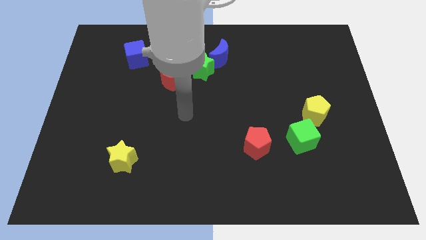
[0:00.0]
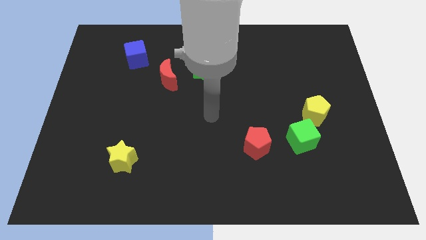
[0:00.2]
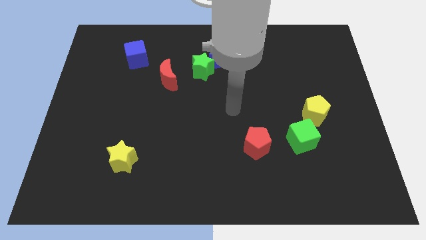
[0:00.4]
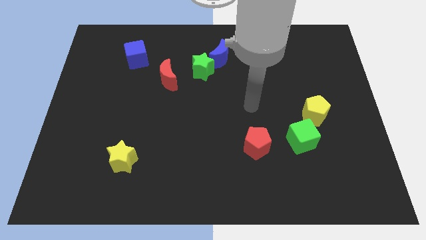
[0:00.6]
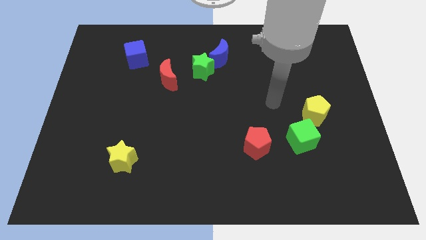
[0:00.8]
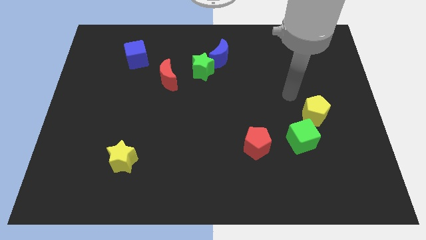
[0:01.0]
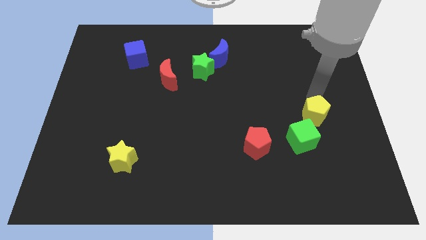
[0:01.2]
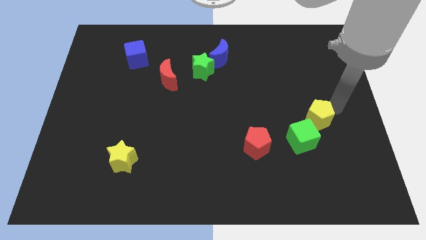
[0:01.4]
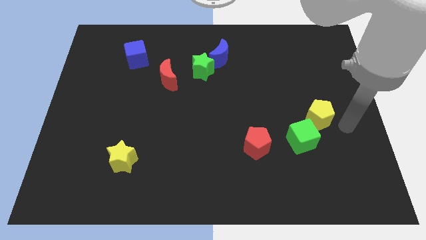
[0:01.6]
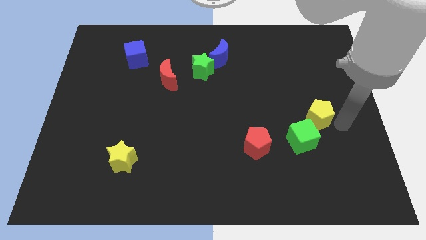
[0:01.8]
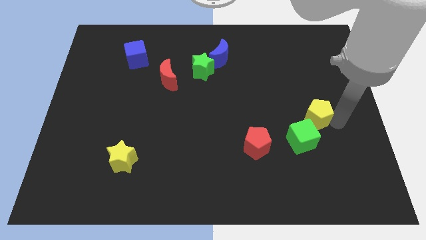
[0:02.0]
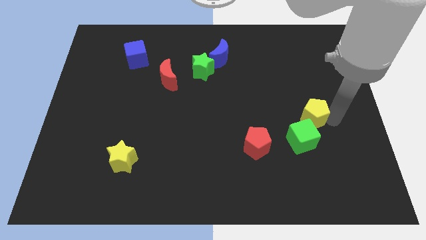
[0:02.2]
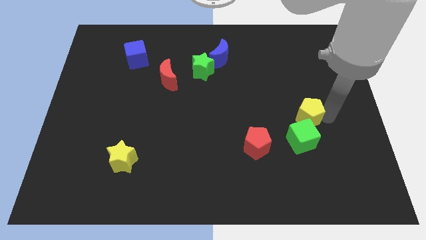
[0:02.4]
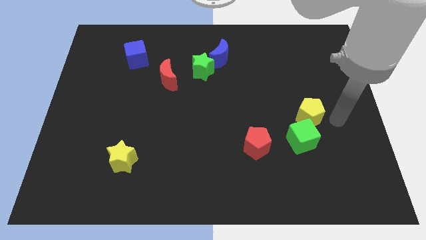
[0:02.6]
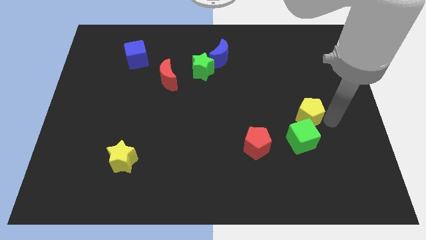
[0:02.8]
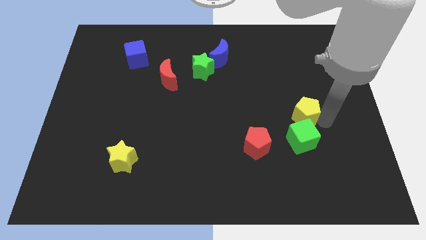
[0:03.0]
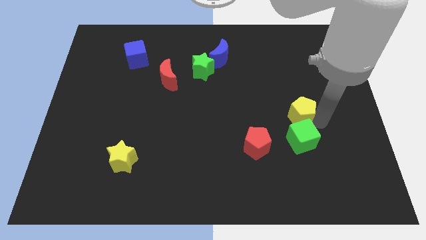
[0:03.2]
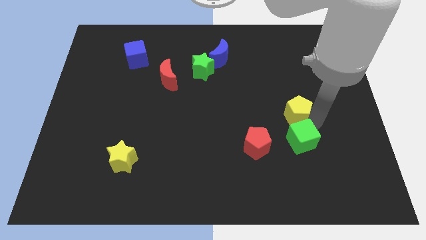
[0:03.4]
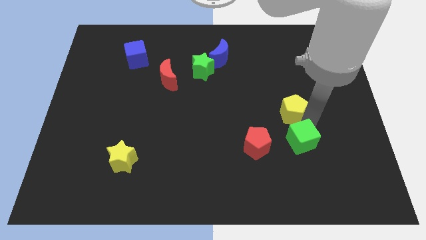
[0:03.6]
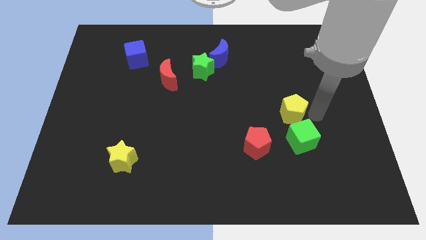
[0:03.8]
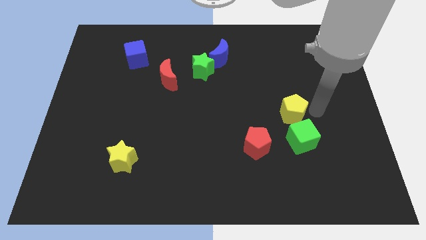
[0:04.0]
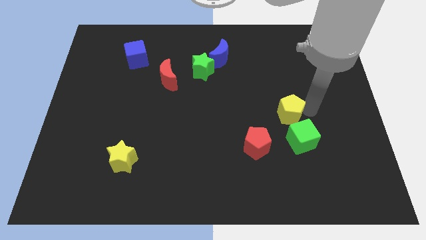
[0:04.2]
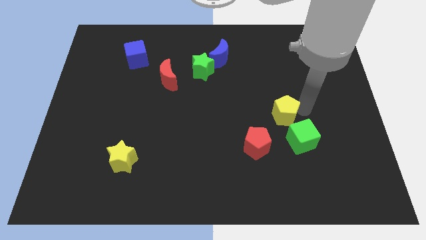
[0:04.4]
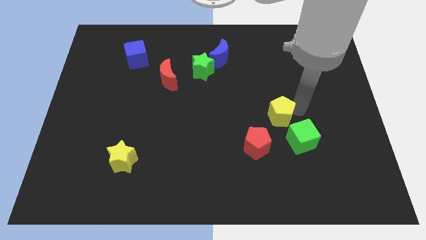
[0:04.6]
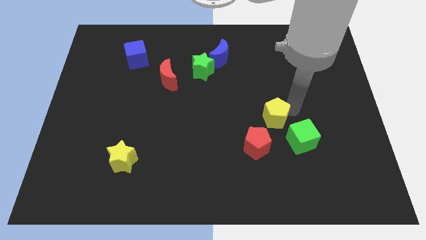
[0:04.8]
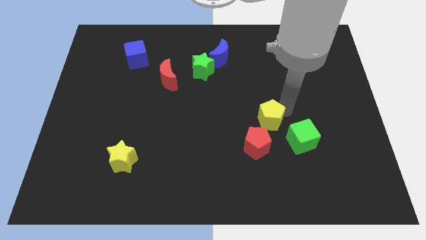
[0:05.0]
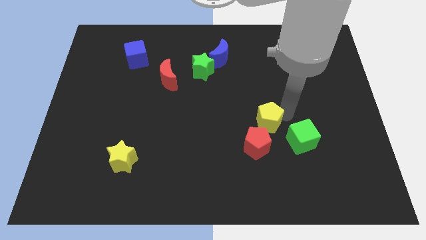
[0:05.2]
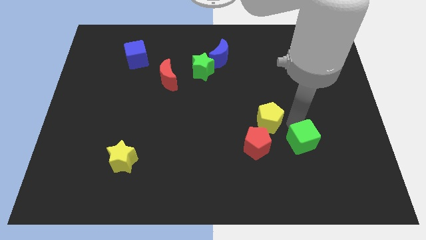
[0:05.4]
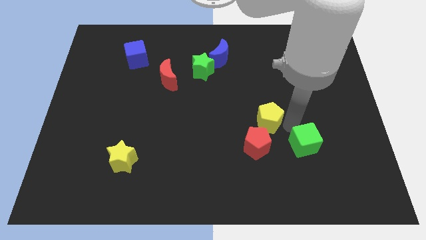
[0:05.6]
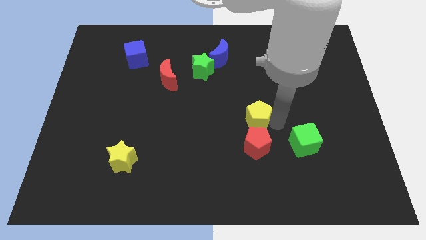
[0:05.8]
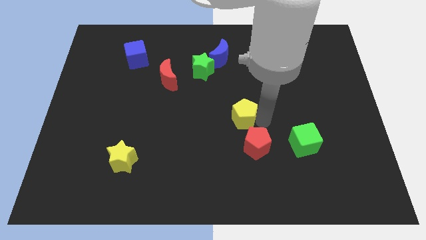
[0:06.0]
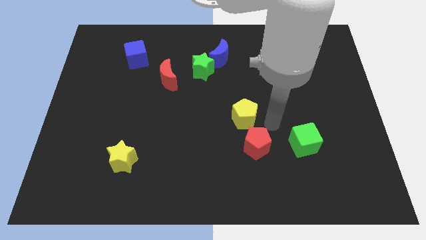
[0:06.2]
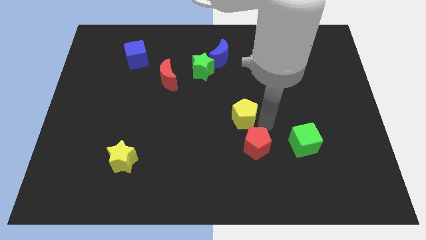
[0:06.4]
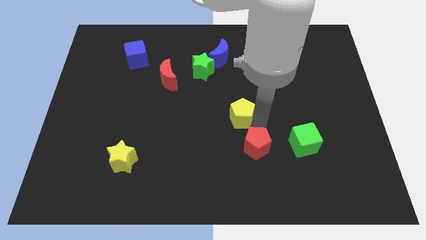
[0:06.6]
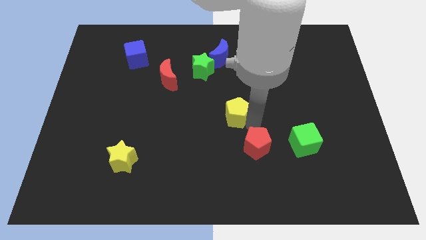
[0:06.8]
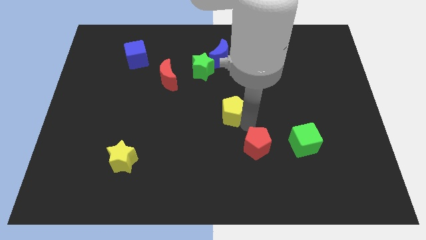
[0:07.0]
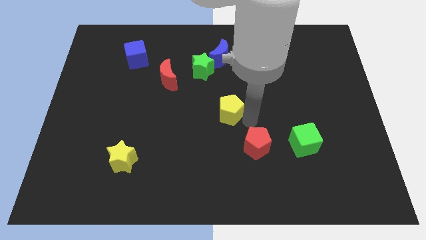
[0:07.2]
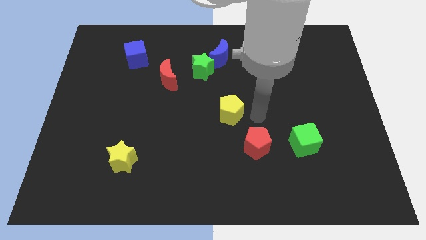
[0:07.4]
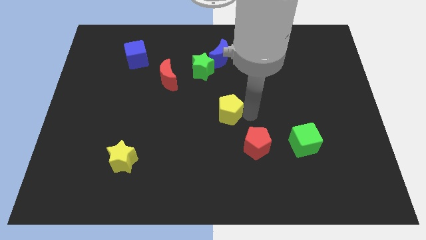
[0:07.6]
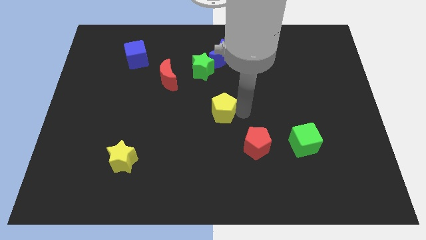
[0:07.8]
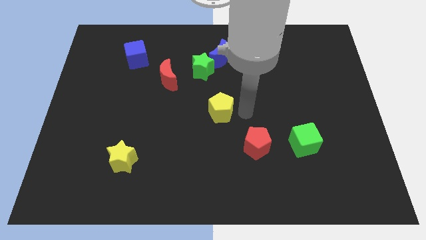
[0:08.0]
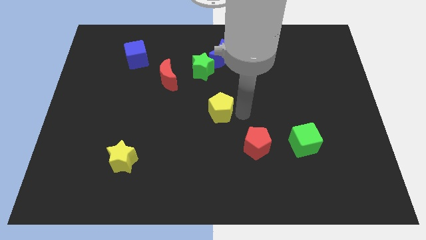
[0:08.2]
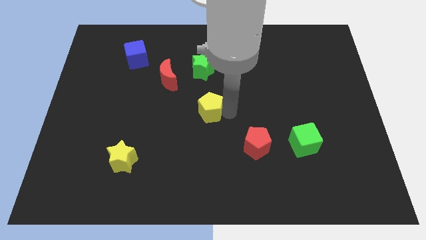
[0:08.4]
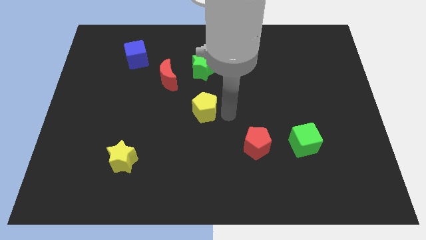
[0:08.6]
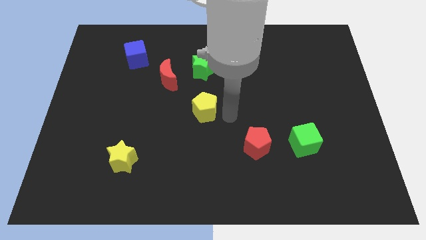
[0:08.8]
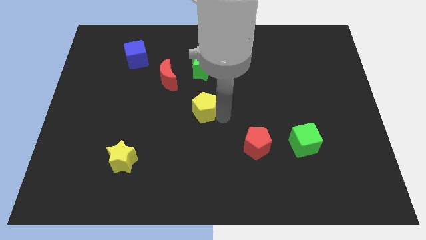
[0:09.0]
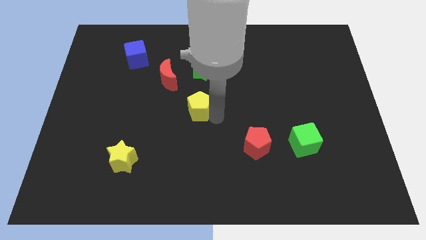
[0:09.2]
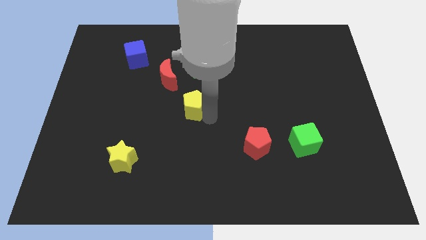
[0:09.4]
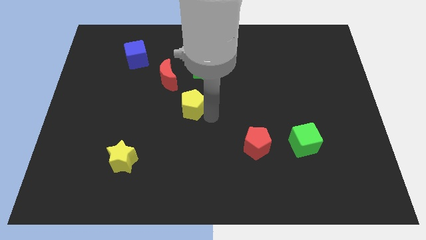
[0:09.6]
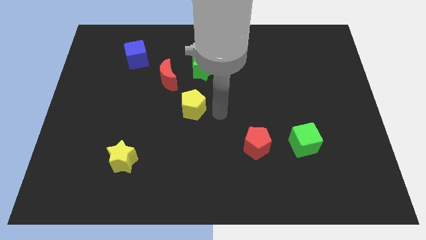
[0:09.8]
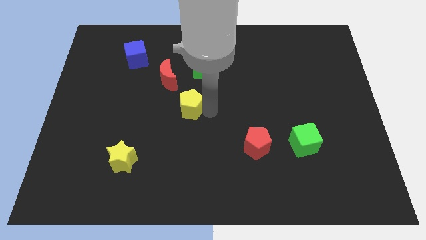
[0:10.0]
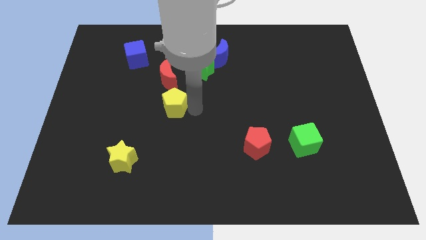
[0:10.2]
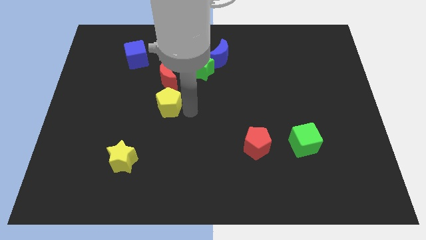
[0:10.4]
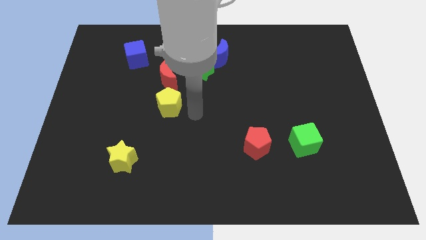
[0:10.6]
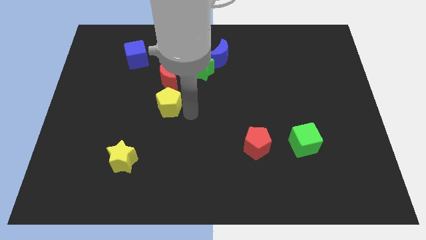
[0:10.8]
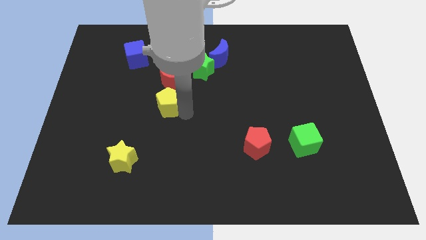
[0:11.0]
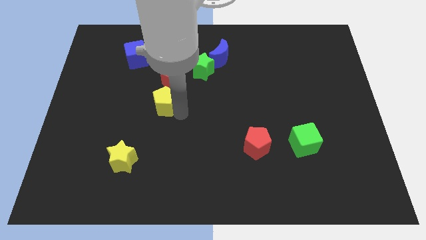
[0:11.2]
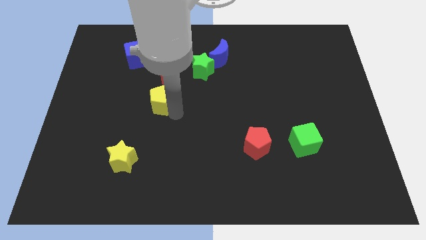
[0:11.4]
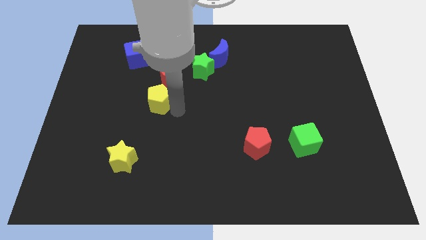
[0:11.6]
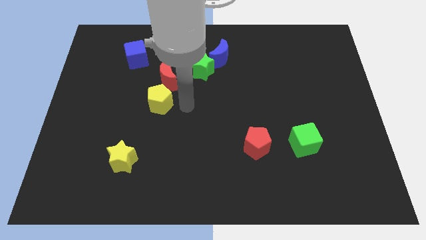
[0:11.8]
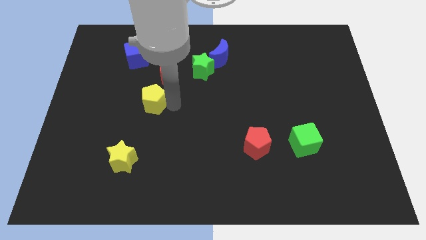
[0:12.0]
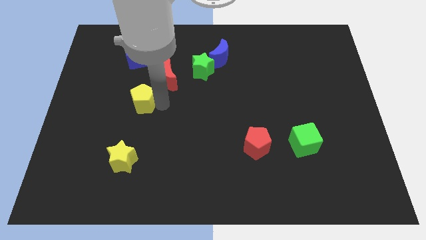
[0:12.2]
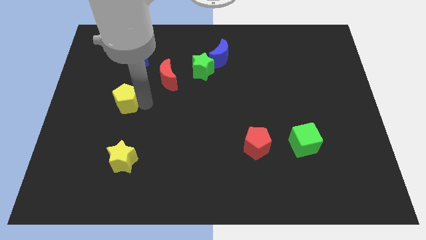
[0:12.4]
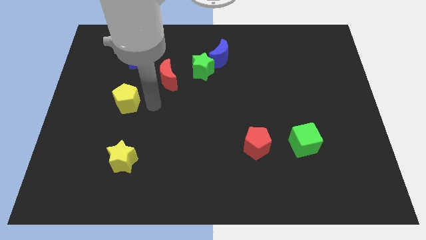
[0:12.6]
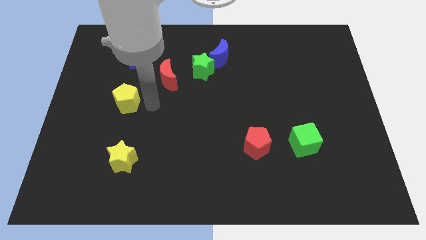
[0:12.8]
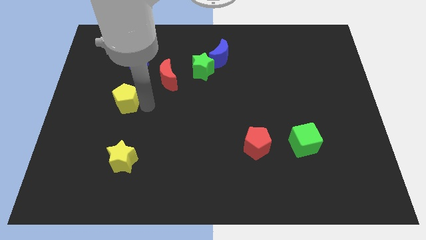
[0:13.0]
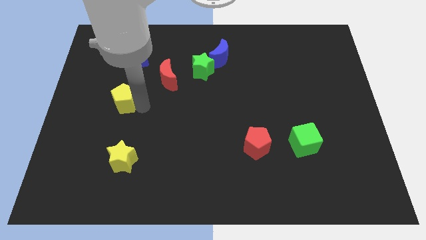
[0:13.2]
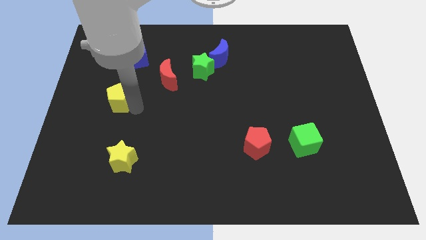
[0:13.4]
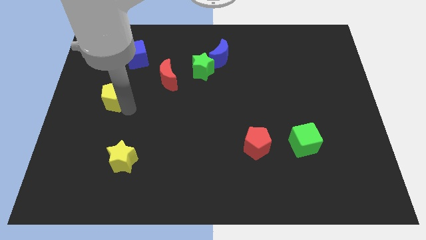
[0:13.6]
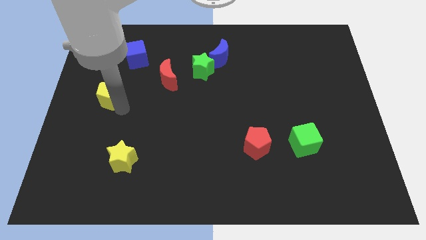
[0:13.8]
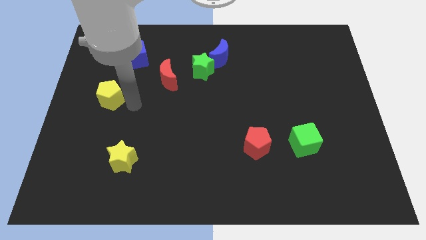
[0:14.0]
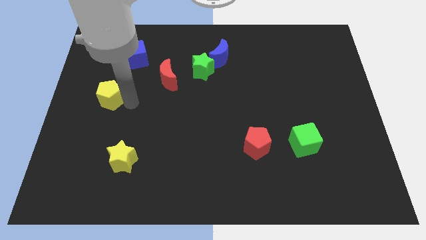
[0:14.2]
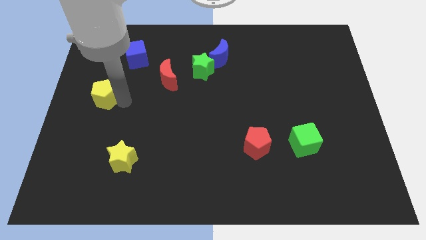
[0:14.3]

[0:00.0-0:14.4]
put the yellow pentagon to the left side
